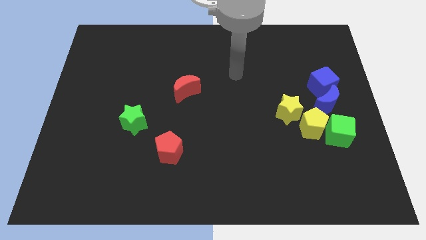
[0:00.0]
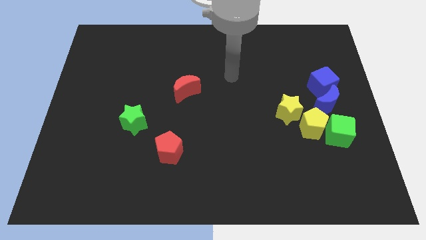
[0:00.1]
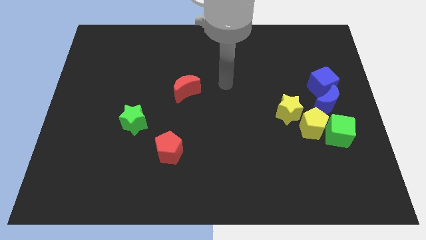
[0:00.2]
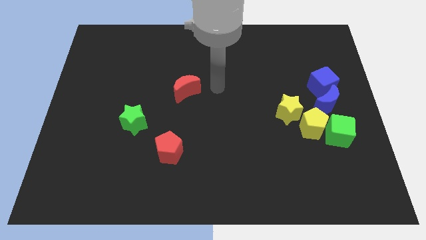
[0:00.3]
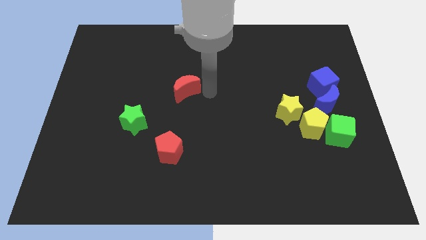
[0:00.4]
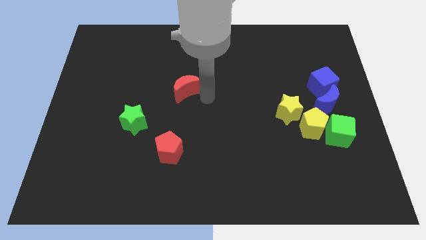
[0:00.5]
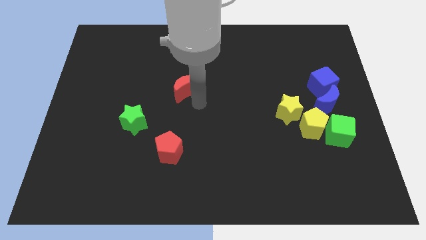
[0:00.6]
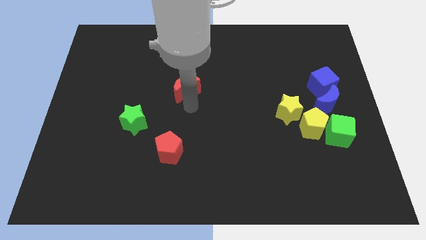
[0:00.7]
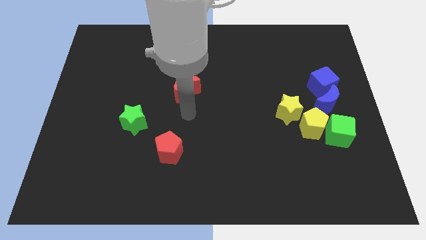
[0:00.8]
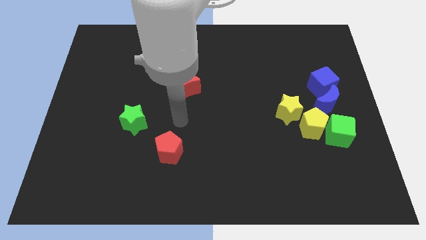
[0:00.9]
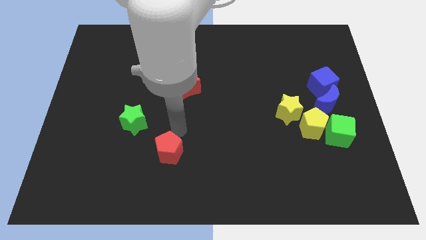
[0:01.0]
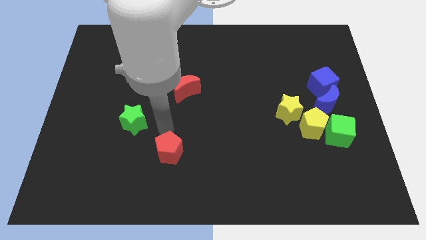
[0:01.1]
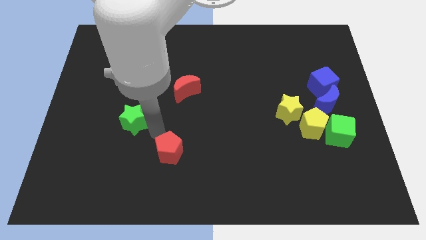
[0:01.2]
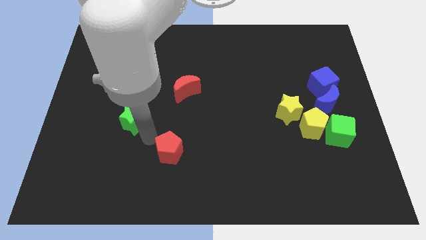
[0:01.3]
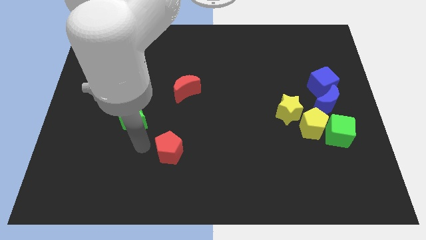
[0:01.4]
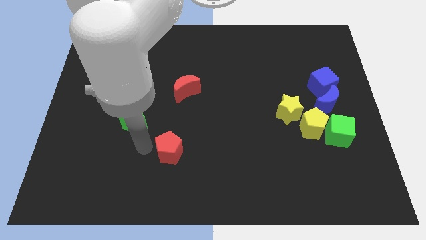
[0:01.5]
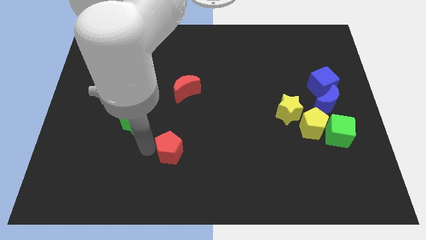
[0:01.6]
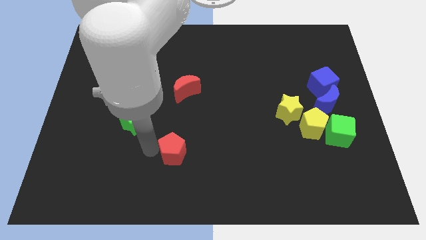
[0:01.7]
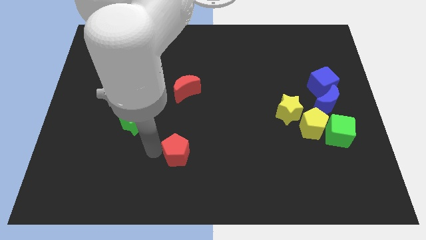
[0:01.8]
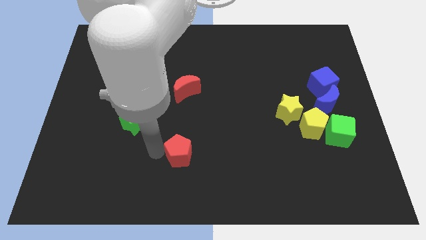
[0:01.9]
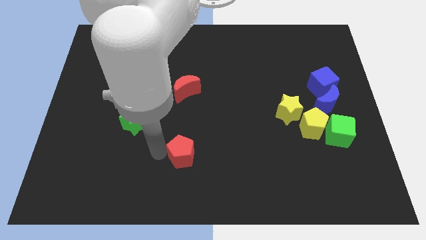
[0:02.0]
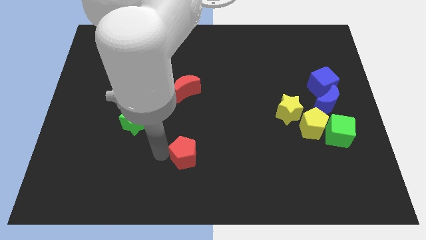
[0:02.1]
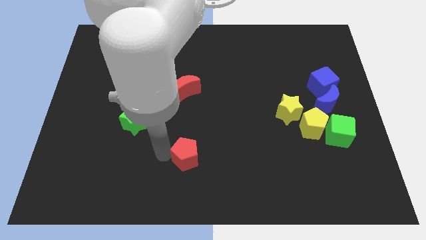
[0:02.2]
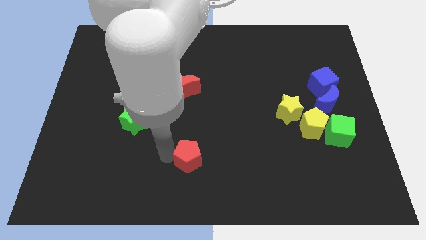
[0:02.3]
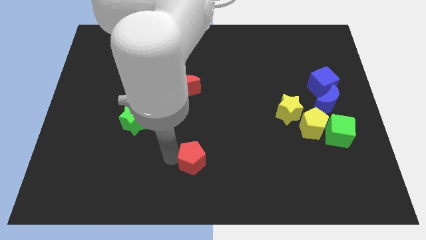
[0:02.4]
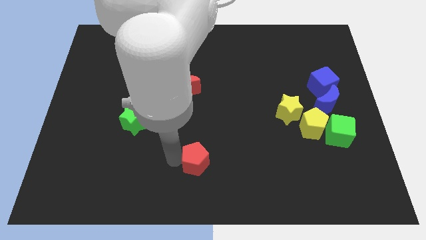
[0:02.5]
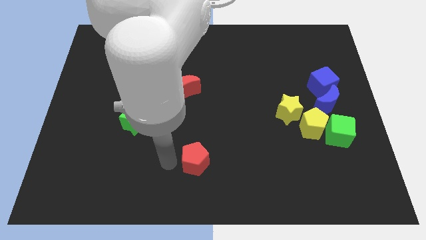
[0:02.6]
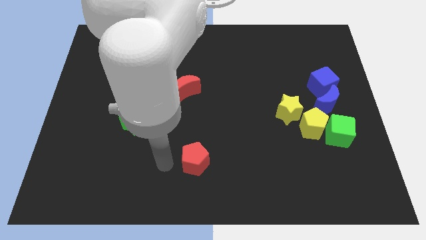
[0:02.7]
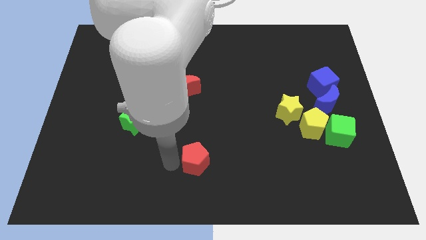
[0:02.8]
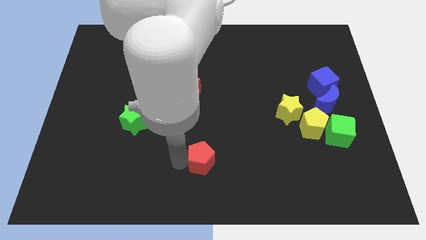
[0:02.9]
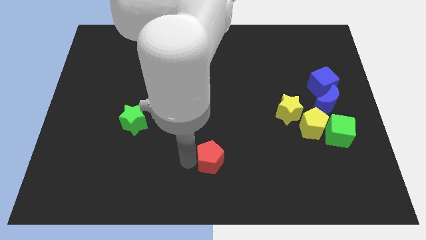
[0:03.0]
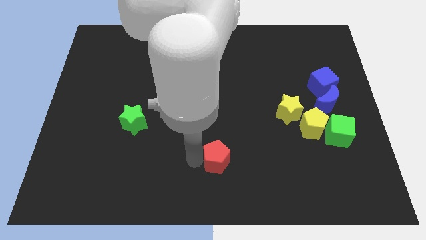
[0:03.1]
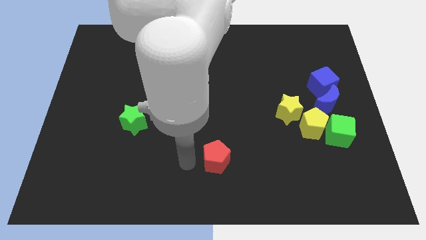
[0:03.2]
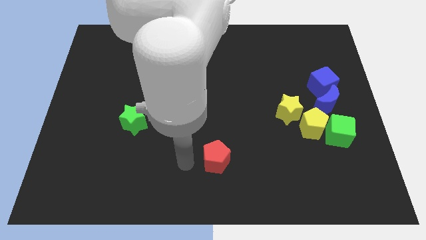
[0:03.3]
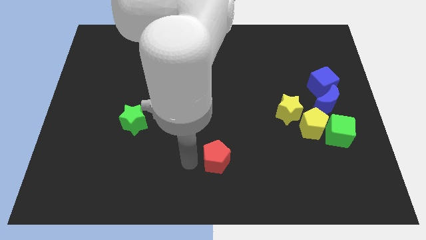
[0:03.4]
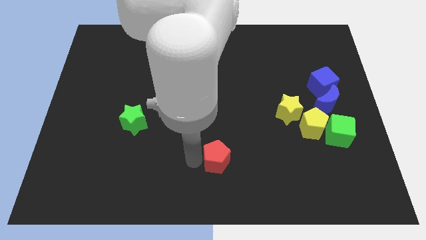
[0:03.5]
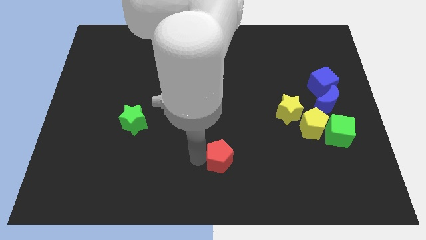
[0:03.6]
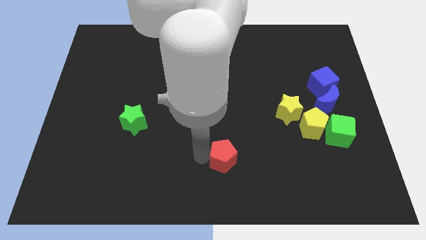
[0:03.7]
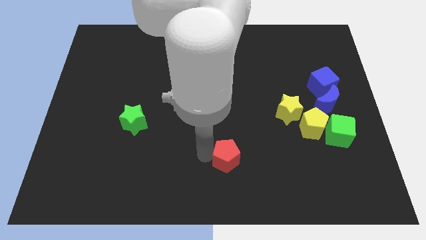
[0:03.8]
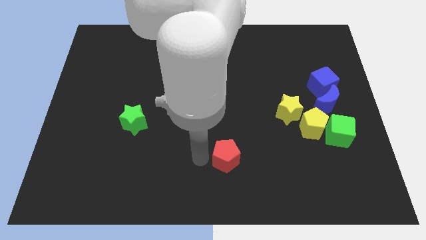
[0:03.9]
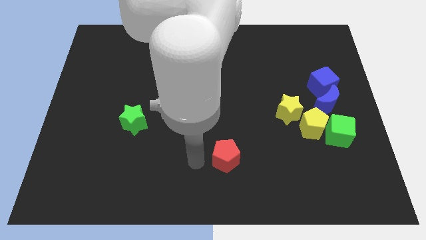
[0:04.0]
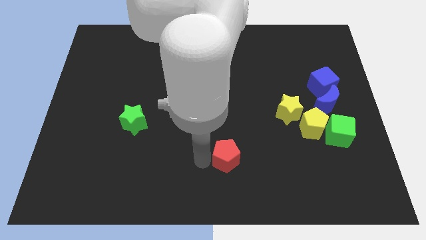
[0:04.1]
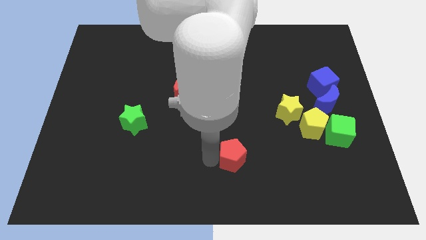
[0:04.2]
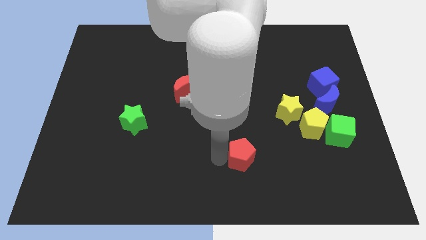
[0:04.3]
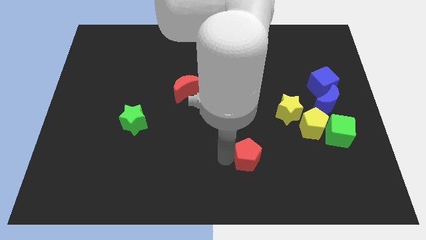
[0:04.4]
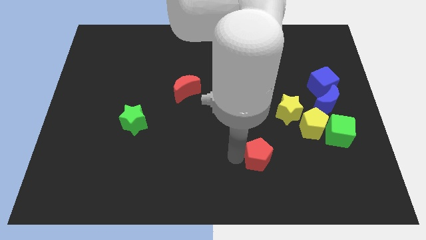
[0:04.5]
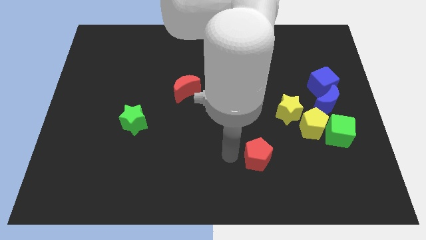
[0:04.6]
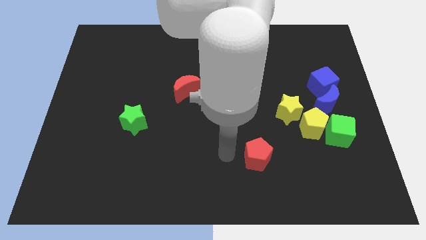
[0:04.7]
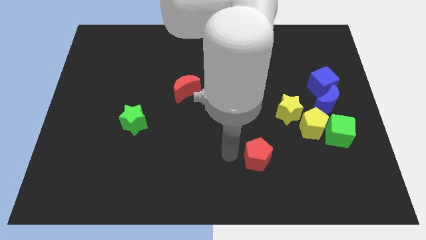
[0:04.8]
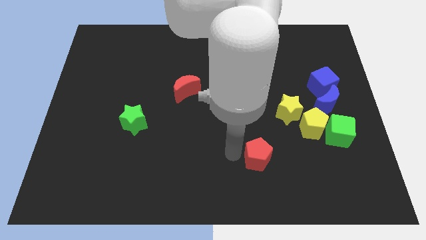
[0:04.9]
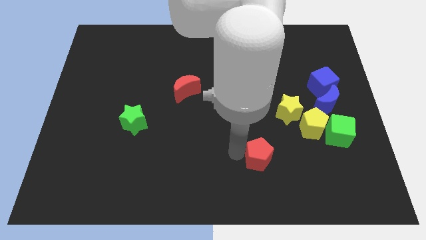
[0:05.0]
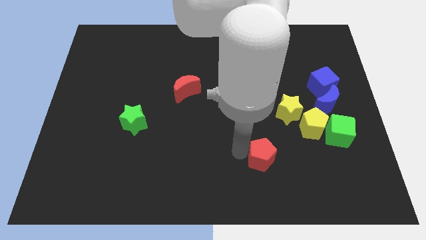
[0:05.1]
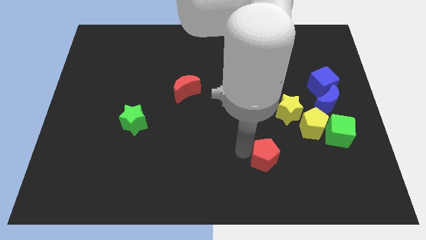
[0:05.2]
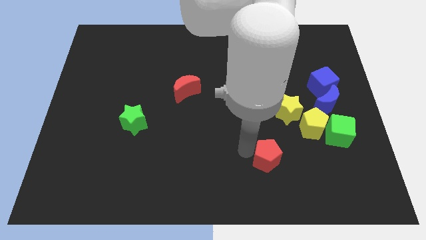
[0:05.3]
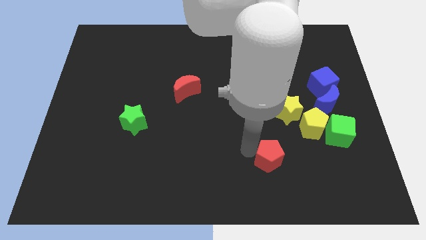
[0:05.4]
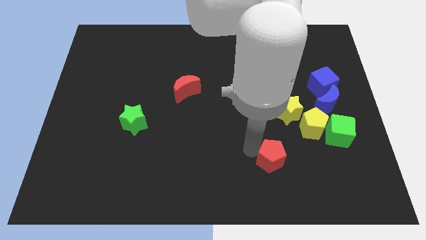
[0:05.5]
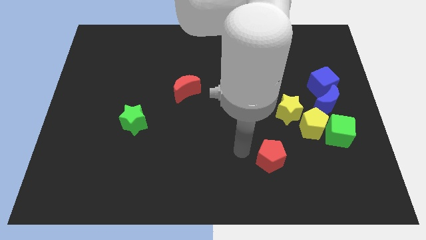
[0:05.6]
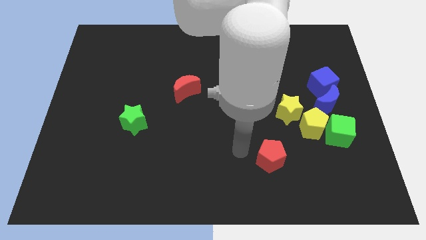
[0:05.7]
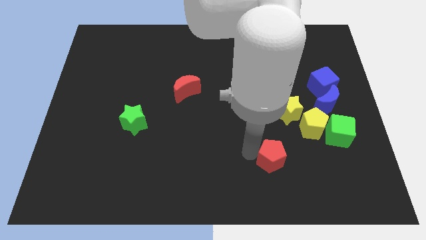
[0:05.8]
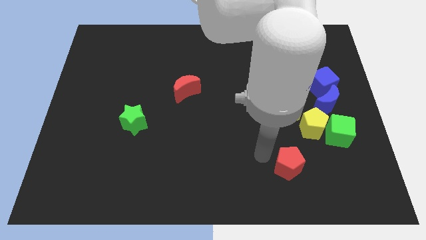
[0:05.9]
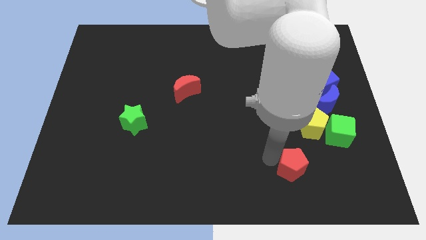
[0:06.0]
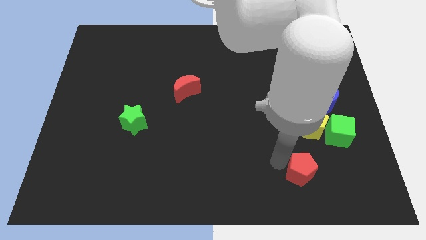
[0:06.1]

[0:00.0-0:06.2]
put the red pentagon to the bottom side of the yellow pentagon
